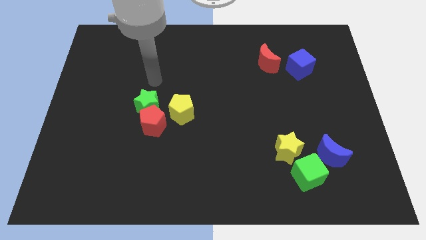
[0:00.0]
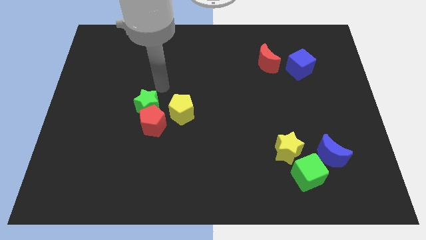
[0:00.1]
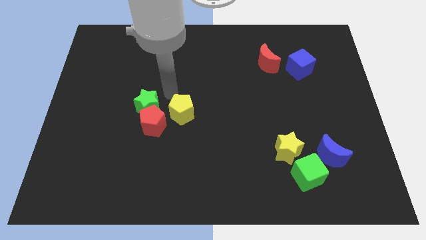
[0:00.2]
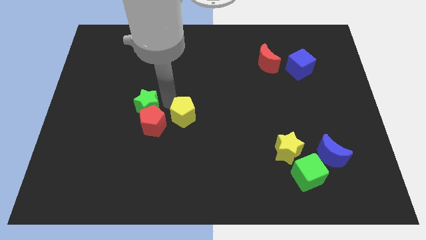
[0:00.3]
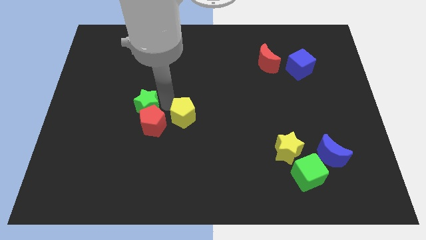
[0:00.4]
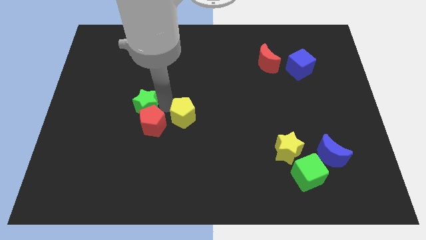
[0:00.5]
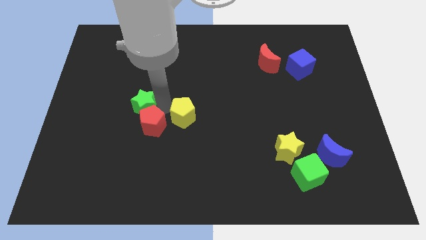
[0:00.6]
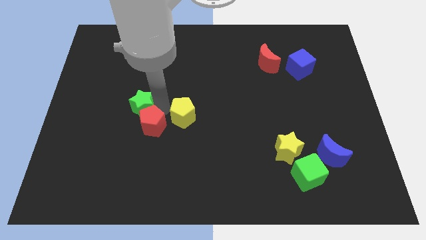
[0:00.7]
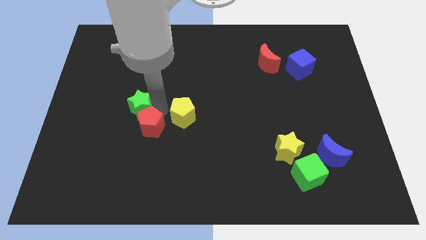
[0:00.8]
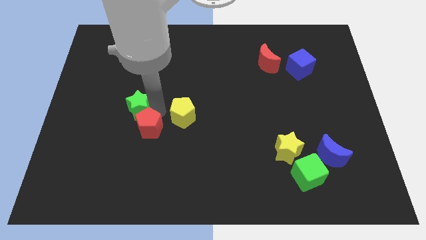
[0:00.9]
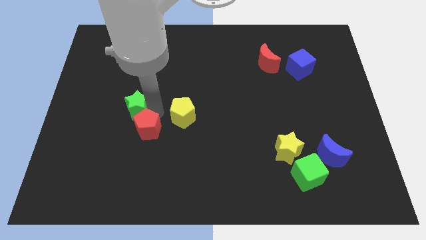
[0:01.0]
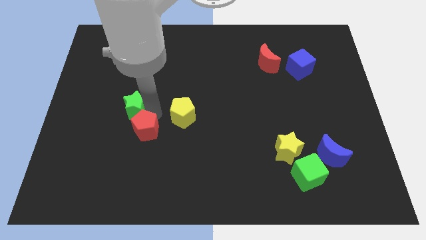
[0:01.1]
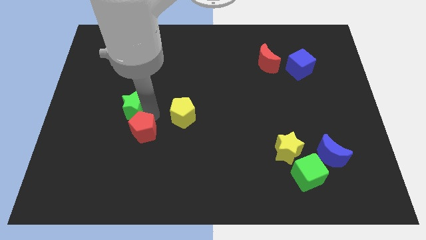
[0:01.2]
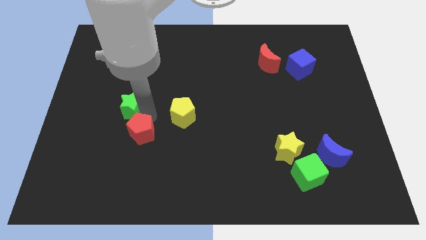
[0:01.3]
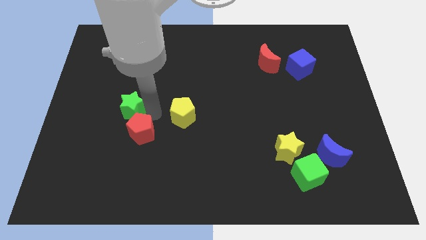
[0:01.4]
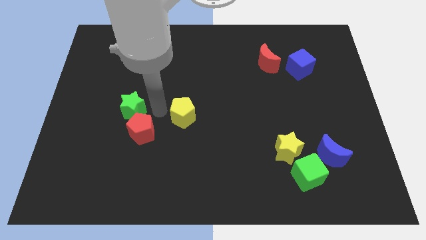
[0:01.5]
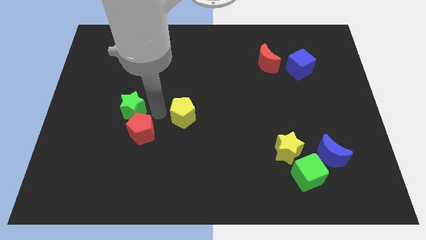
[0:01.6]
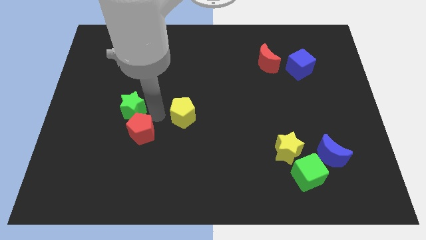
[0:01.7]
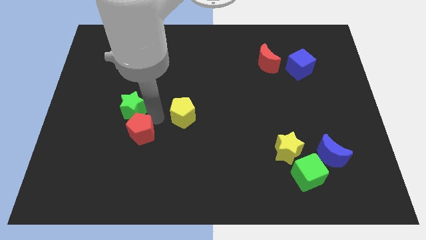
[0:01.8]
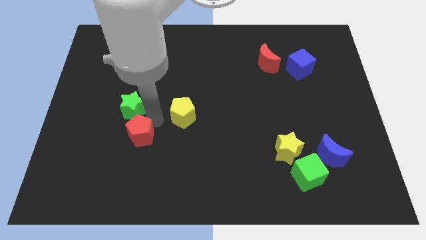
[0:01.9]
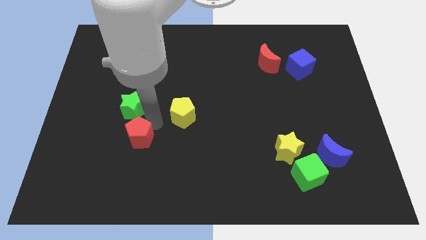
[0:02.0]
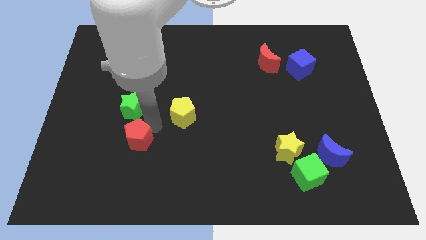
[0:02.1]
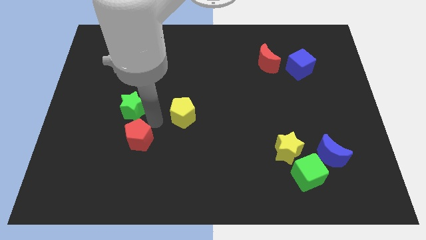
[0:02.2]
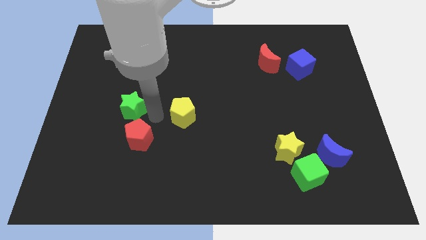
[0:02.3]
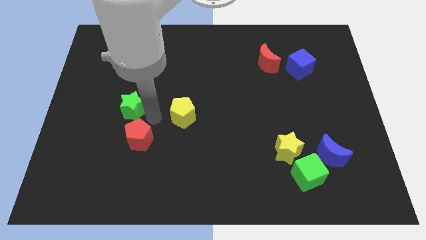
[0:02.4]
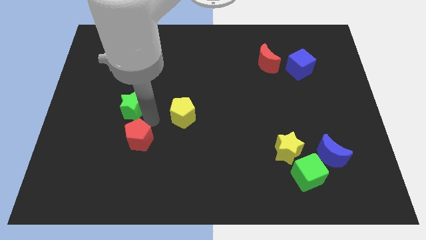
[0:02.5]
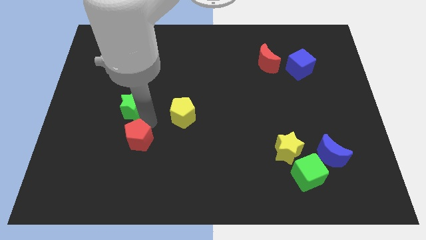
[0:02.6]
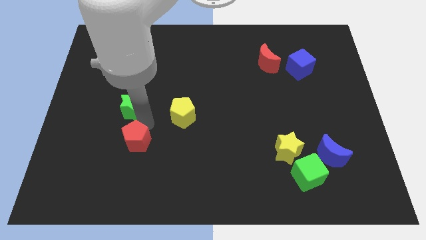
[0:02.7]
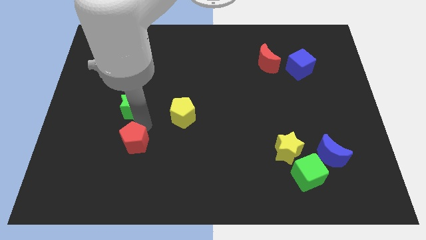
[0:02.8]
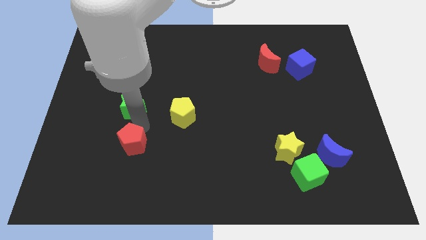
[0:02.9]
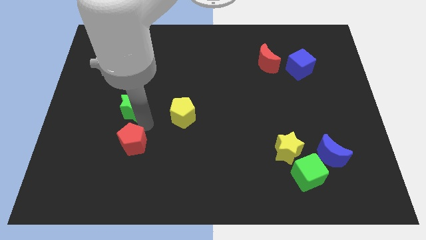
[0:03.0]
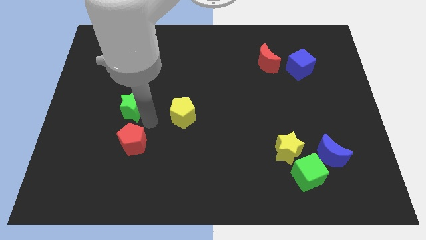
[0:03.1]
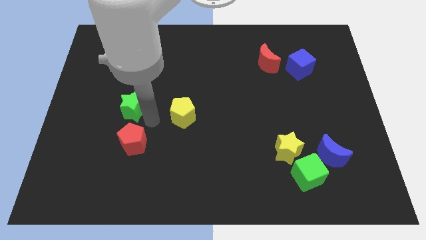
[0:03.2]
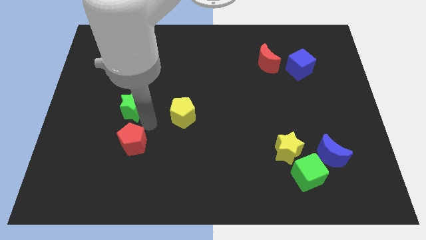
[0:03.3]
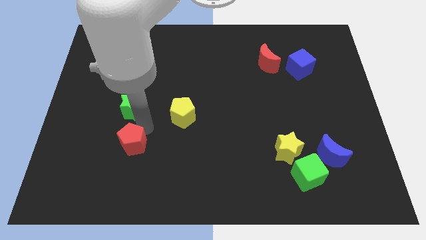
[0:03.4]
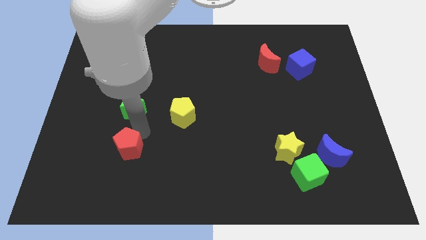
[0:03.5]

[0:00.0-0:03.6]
pull the red pentagon apart from the green star and yellow pentagon

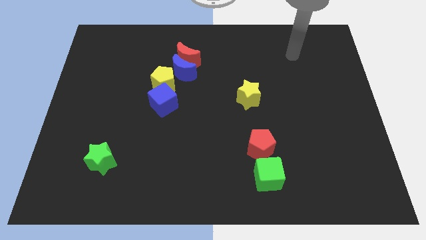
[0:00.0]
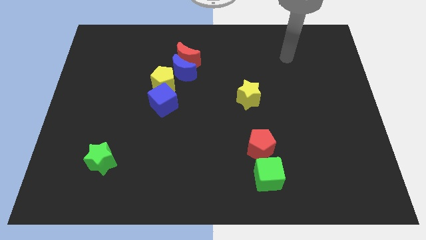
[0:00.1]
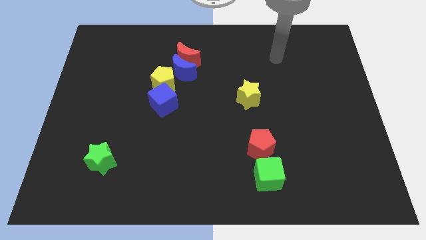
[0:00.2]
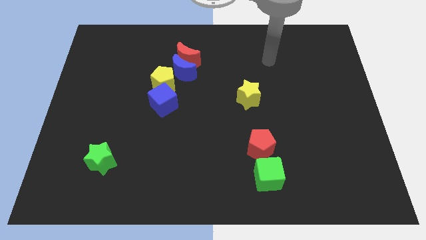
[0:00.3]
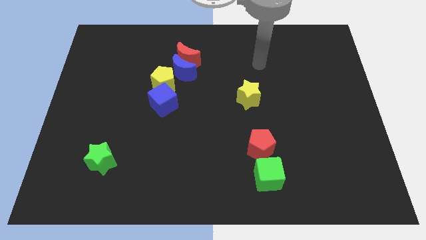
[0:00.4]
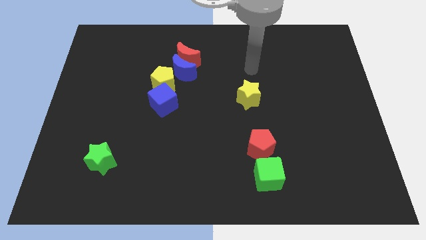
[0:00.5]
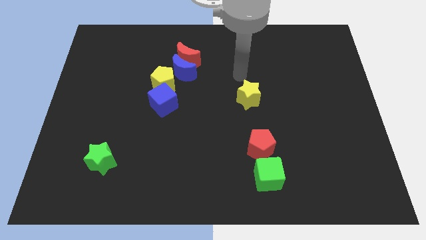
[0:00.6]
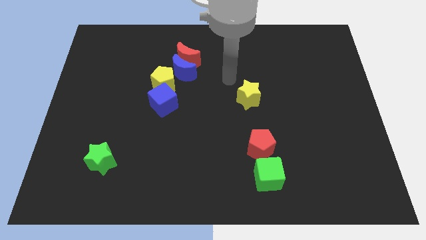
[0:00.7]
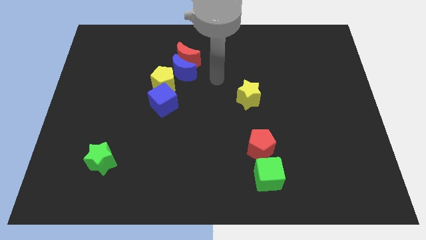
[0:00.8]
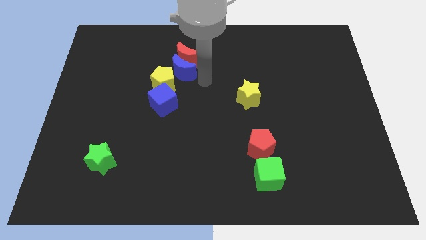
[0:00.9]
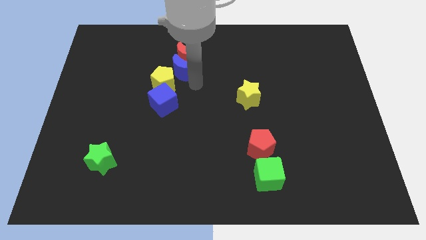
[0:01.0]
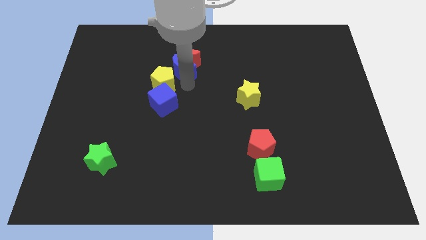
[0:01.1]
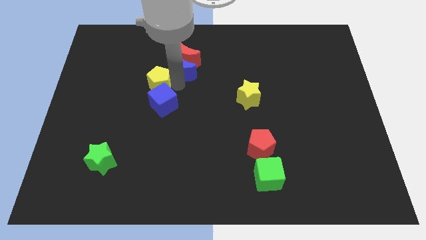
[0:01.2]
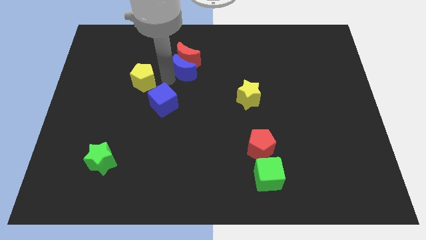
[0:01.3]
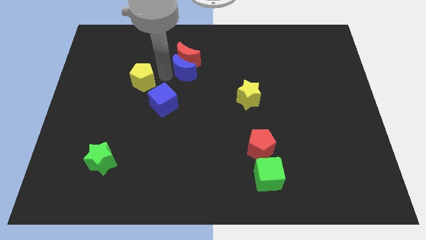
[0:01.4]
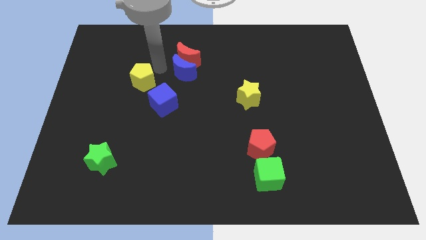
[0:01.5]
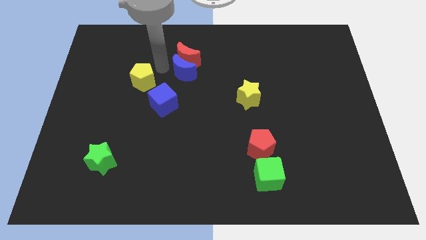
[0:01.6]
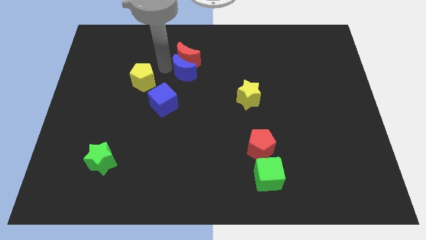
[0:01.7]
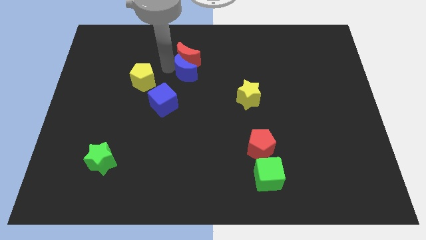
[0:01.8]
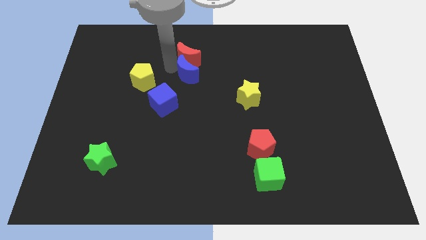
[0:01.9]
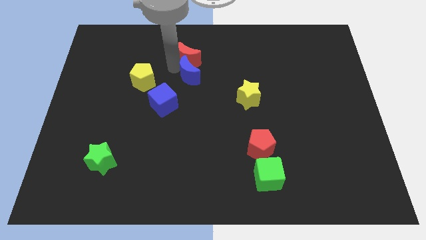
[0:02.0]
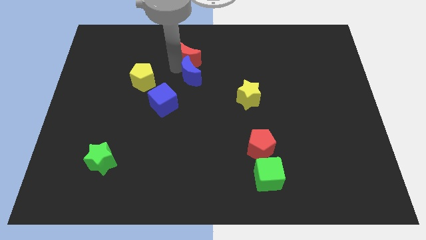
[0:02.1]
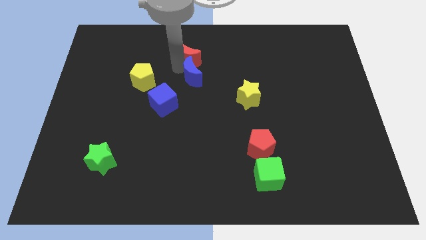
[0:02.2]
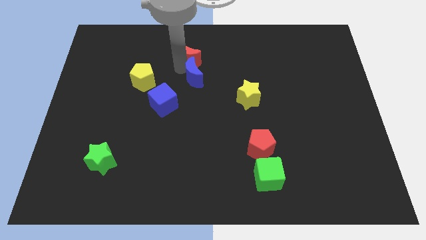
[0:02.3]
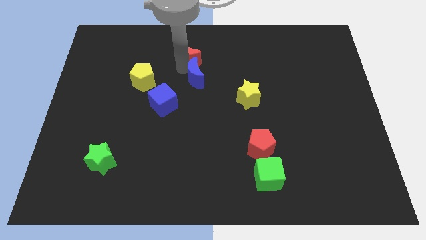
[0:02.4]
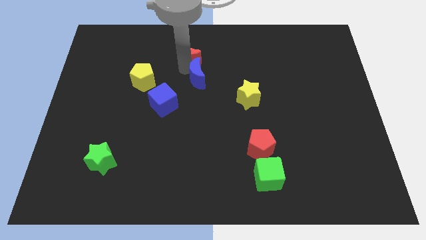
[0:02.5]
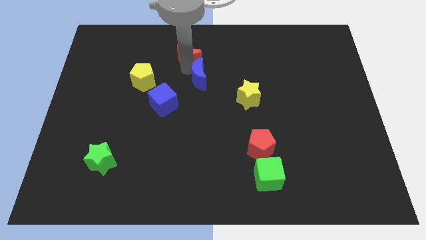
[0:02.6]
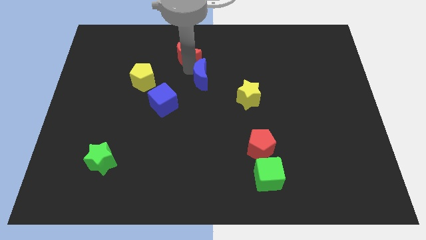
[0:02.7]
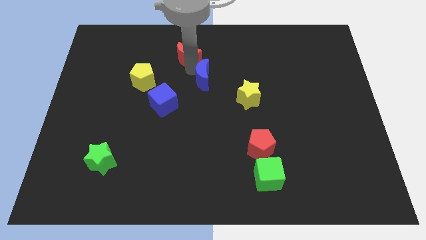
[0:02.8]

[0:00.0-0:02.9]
pull the blue moon apart from the red moon and yellow pentagon

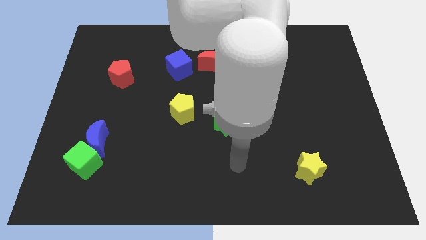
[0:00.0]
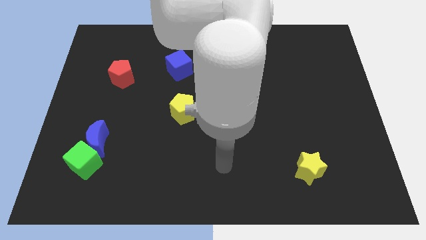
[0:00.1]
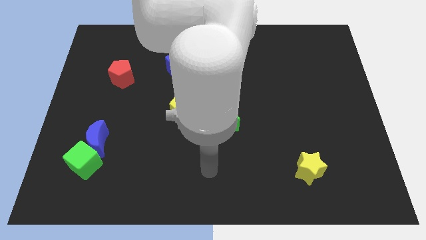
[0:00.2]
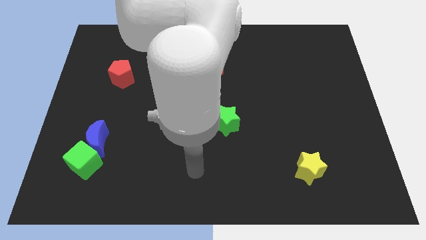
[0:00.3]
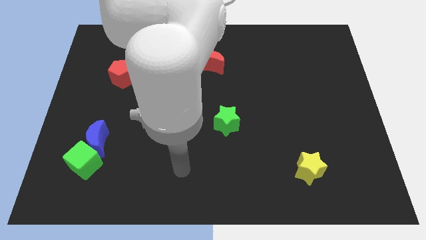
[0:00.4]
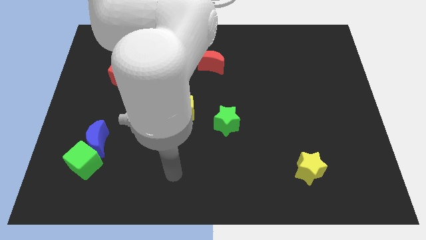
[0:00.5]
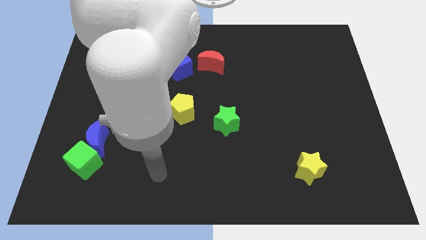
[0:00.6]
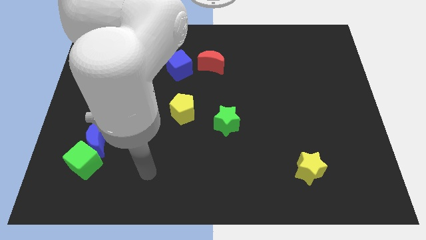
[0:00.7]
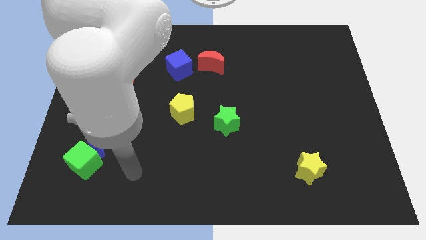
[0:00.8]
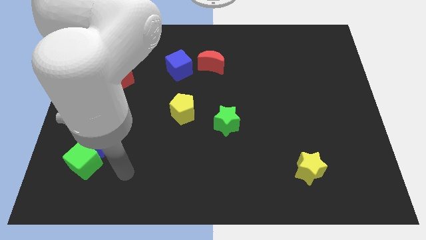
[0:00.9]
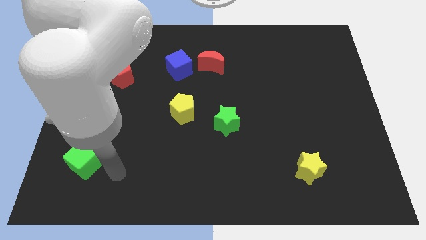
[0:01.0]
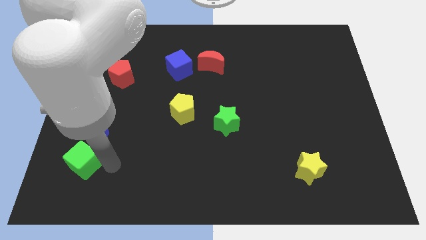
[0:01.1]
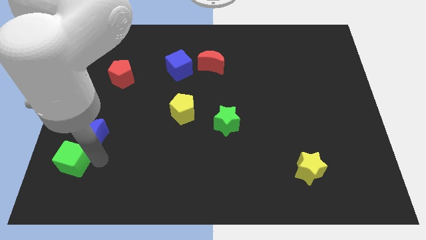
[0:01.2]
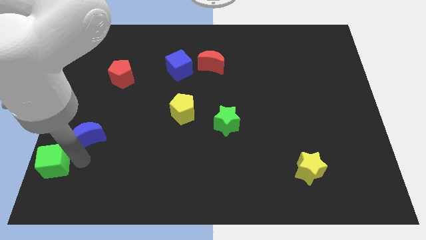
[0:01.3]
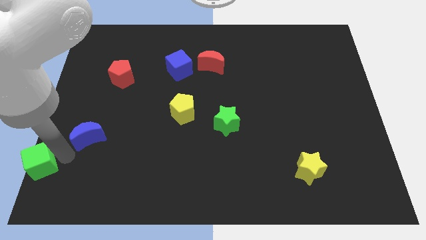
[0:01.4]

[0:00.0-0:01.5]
separate the blue moon from the green cube

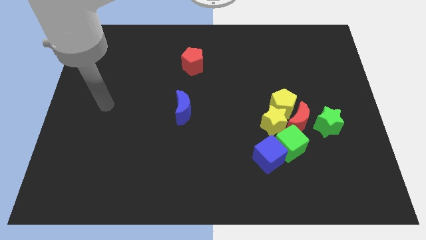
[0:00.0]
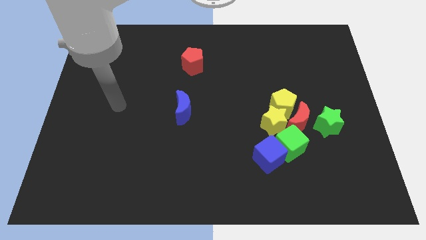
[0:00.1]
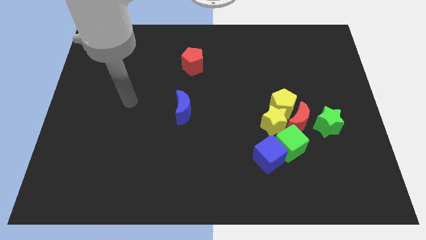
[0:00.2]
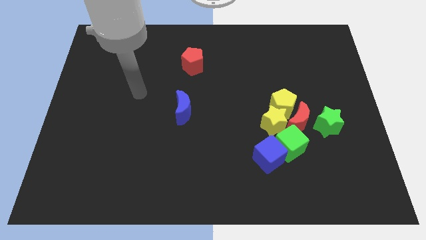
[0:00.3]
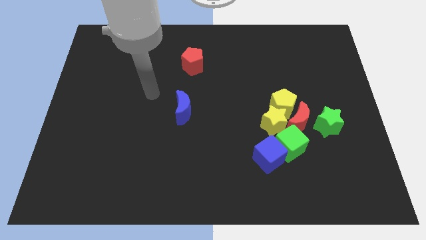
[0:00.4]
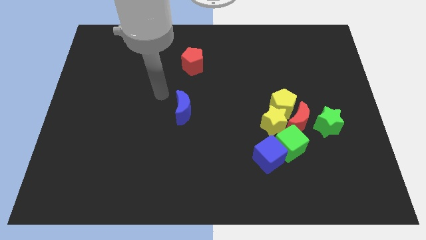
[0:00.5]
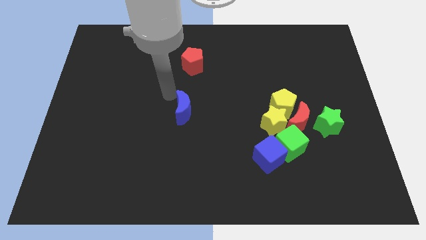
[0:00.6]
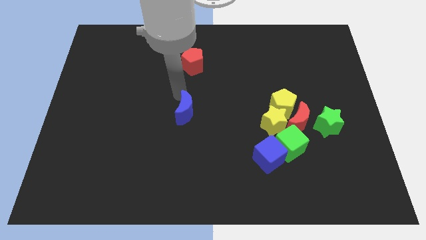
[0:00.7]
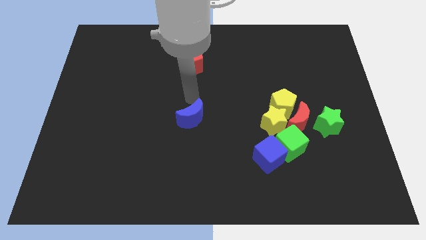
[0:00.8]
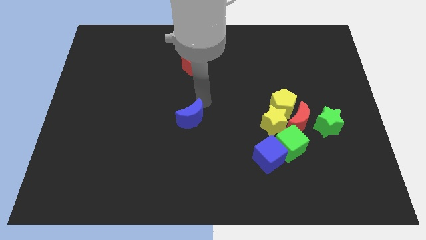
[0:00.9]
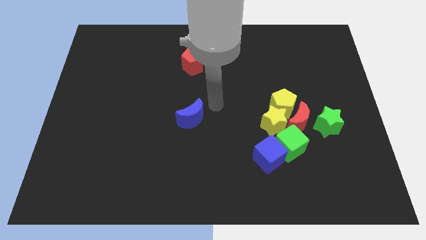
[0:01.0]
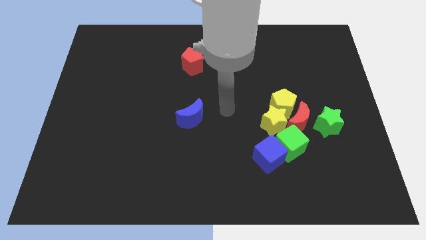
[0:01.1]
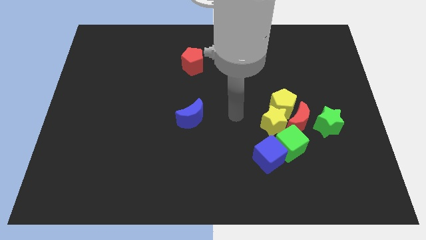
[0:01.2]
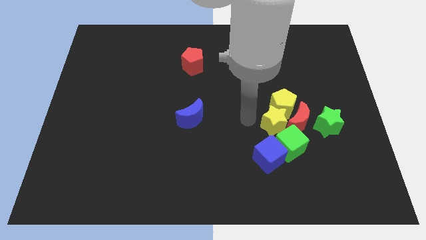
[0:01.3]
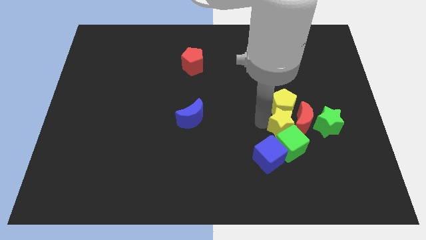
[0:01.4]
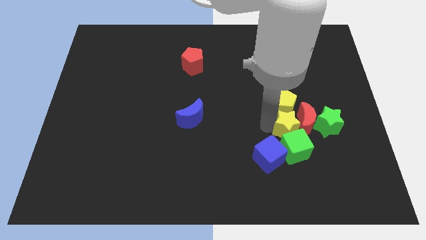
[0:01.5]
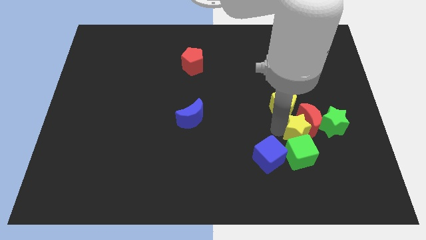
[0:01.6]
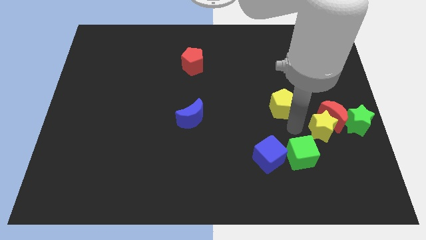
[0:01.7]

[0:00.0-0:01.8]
move the yellow pentagon away from the yellow star and red moon
